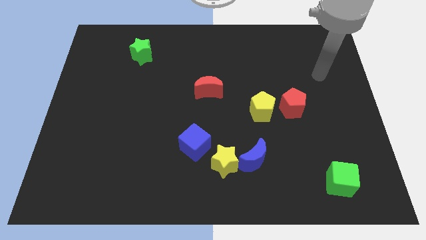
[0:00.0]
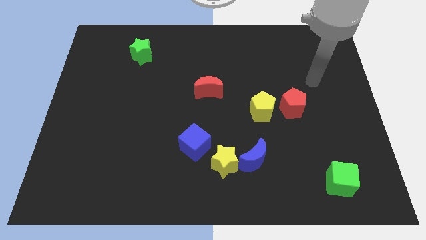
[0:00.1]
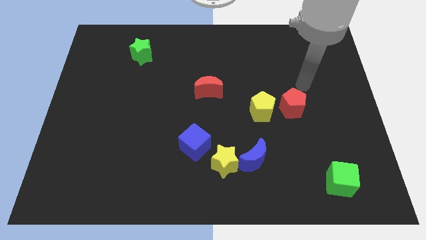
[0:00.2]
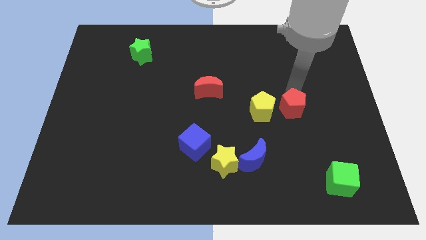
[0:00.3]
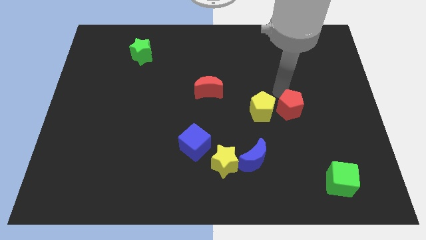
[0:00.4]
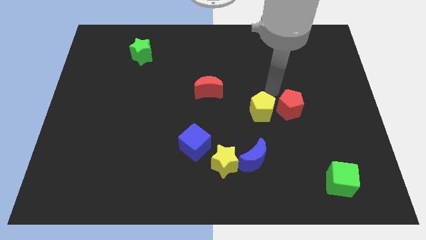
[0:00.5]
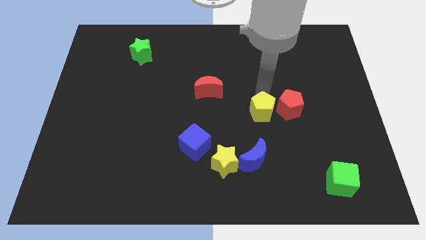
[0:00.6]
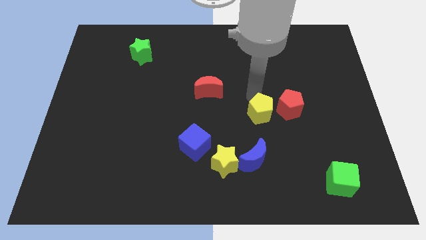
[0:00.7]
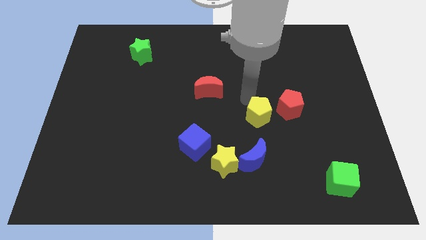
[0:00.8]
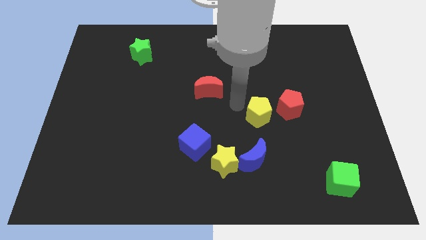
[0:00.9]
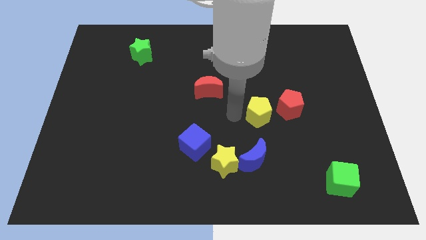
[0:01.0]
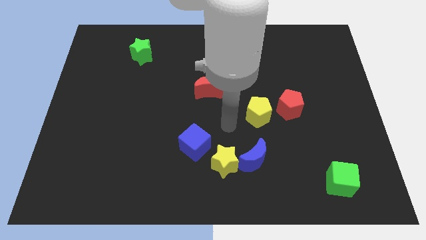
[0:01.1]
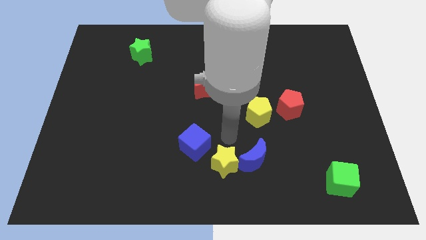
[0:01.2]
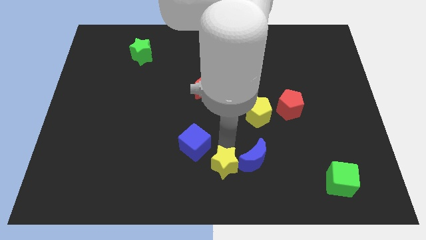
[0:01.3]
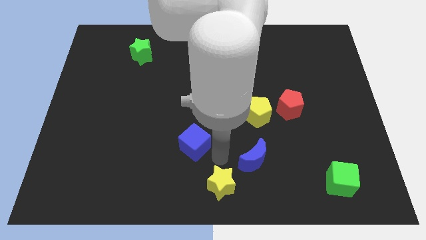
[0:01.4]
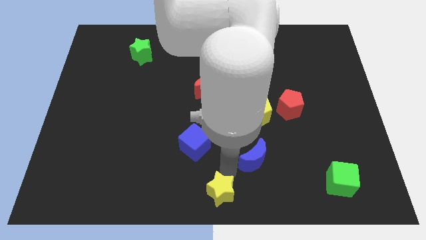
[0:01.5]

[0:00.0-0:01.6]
pull the blue moon apart from the yellow star

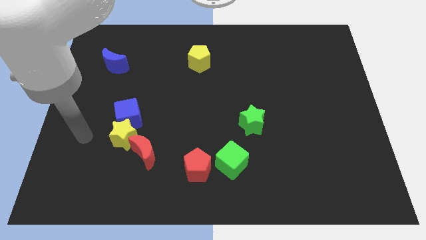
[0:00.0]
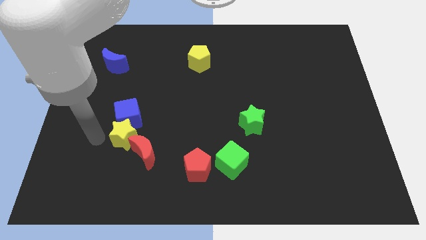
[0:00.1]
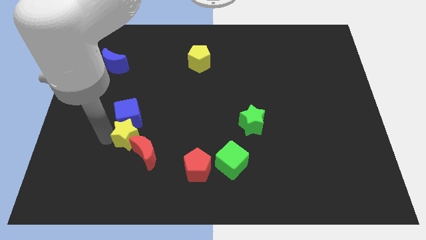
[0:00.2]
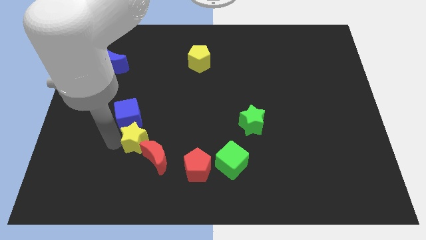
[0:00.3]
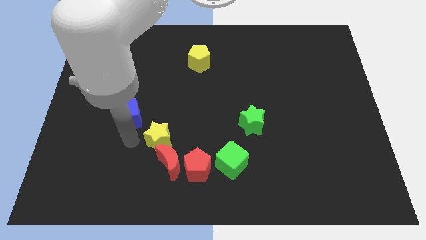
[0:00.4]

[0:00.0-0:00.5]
pull the blue cube apart from the yellow star

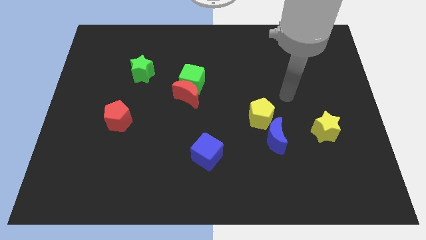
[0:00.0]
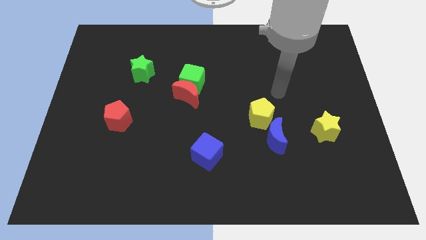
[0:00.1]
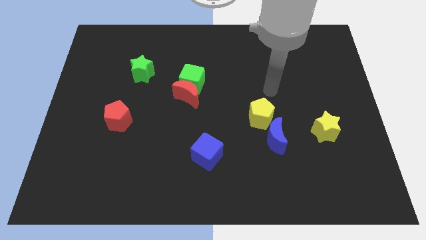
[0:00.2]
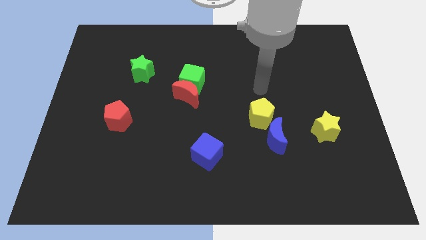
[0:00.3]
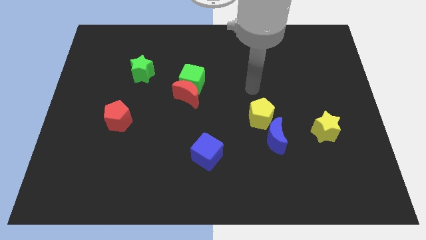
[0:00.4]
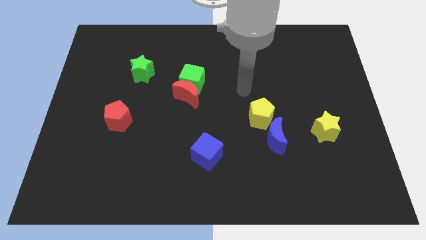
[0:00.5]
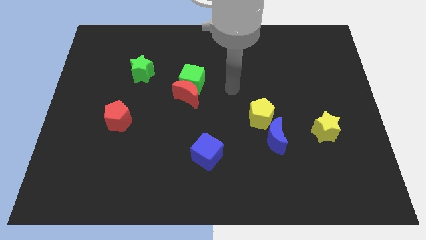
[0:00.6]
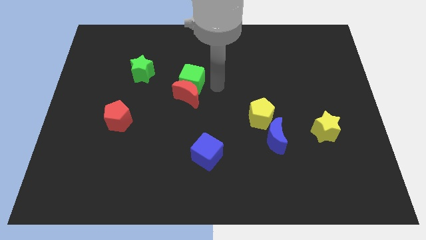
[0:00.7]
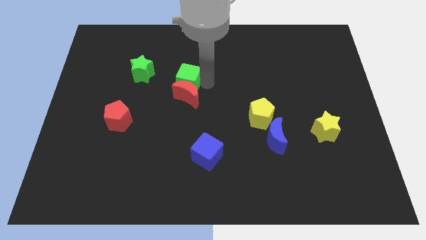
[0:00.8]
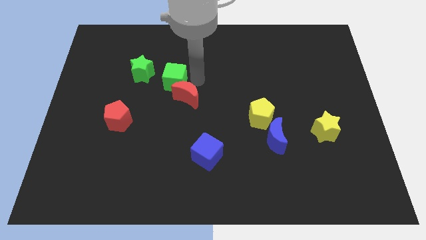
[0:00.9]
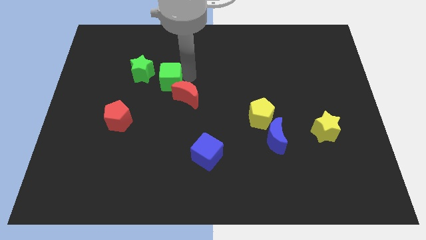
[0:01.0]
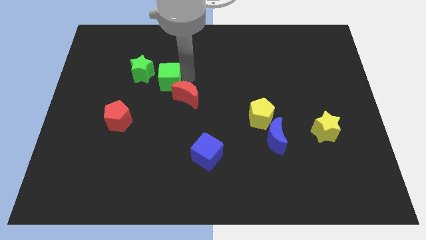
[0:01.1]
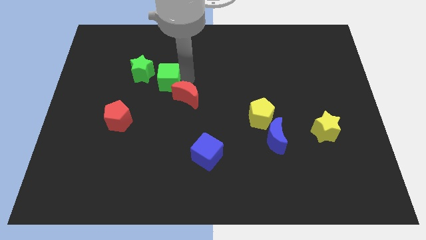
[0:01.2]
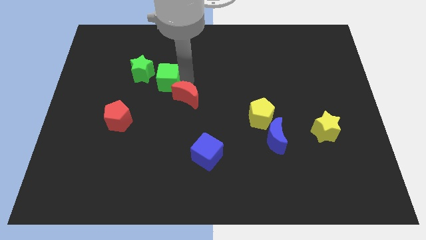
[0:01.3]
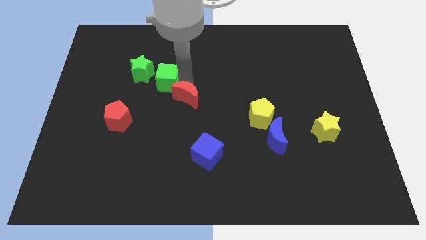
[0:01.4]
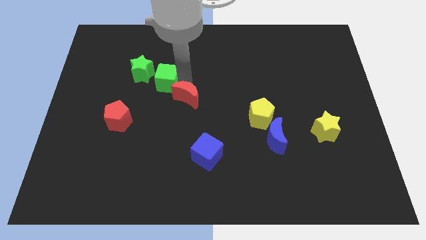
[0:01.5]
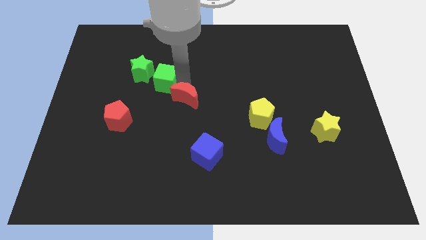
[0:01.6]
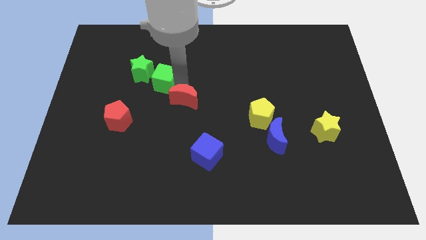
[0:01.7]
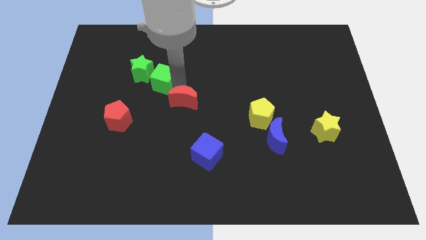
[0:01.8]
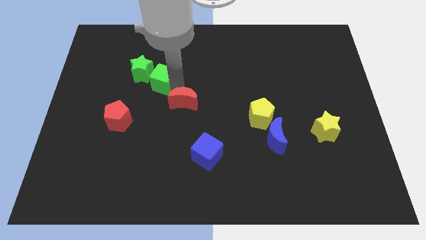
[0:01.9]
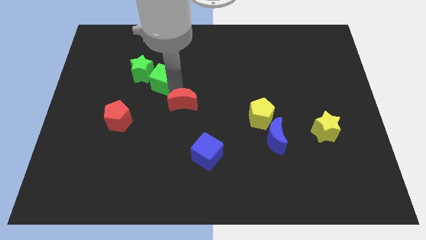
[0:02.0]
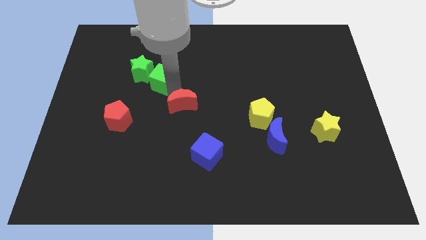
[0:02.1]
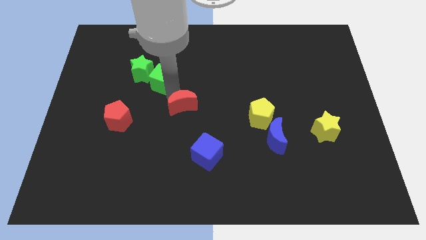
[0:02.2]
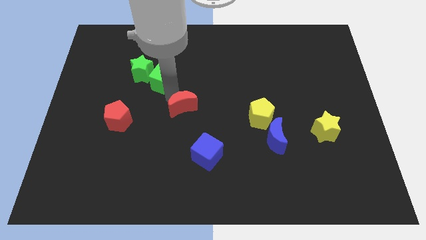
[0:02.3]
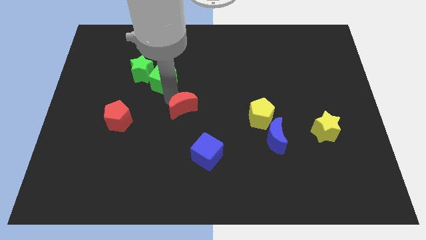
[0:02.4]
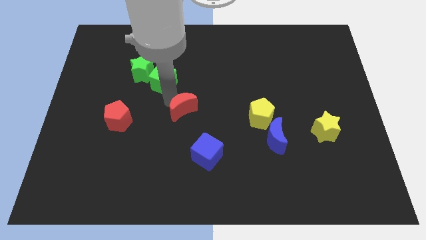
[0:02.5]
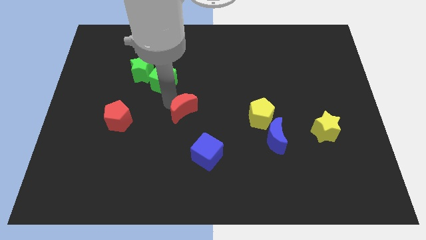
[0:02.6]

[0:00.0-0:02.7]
move the red moon away from the green cube

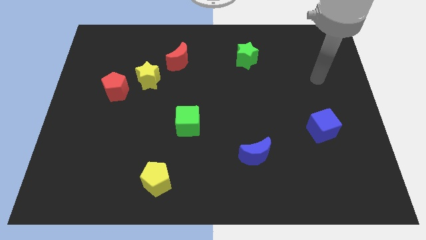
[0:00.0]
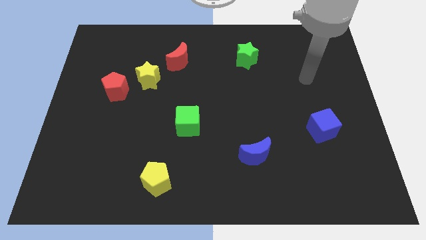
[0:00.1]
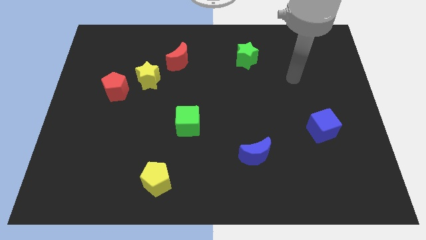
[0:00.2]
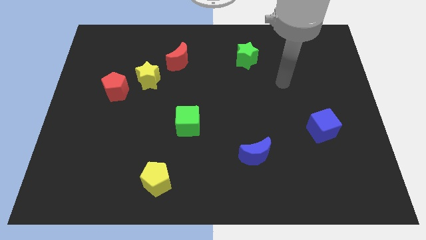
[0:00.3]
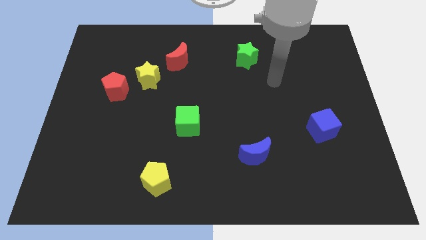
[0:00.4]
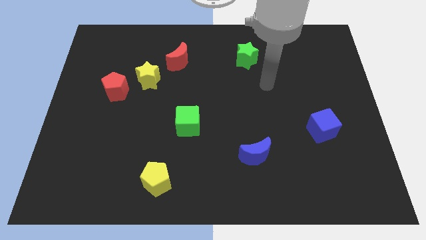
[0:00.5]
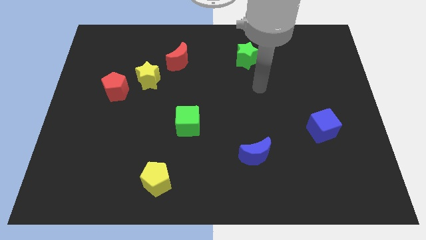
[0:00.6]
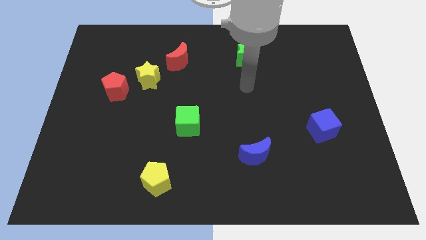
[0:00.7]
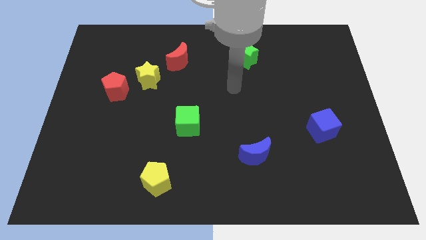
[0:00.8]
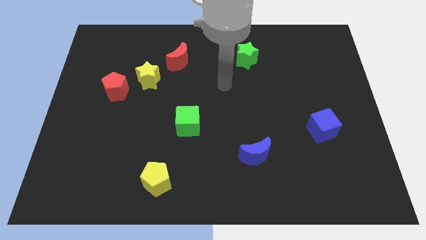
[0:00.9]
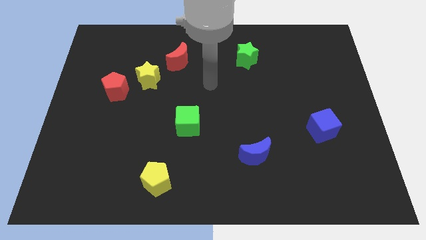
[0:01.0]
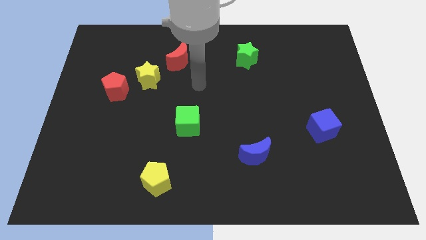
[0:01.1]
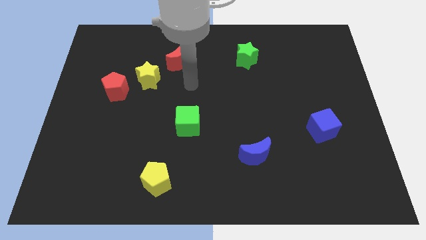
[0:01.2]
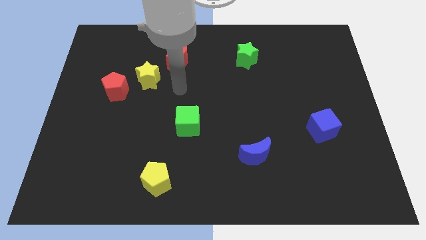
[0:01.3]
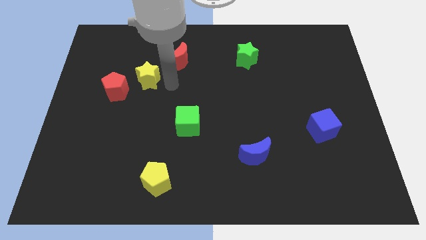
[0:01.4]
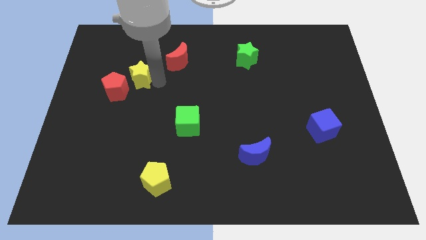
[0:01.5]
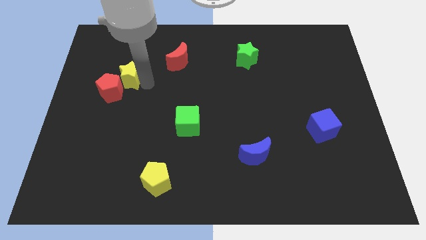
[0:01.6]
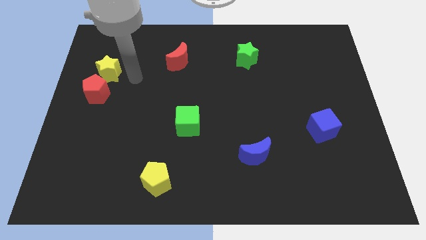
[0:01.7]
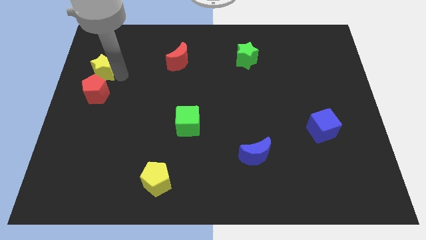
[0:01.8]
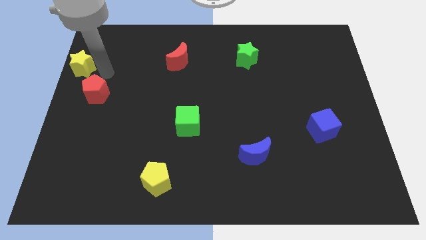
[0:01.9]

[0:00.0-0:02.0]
separate the red pentagon from the yellow star

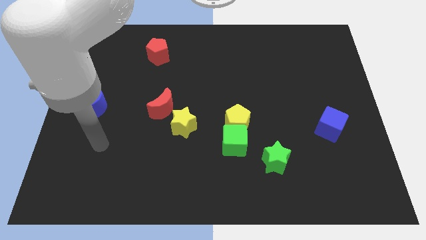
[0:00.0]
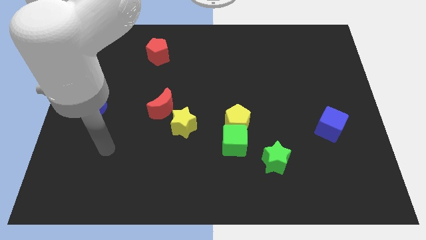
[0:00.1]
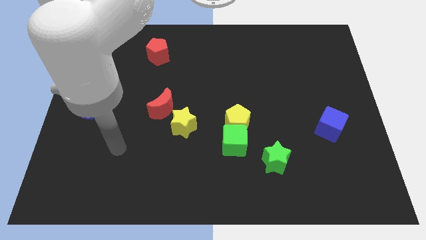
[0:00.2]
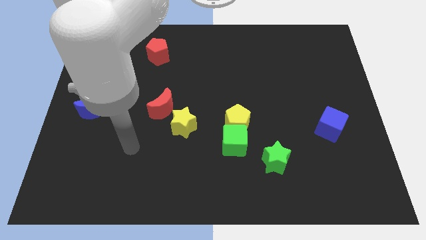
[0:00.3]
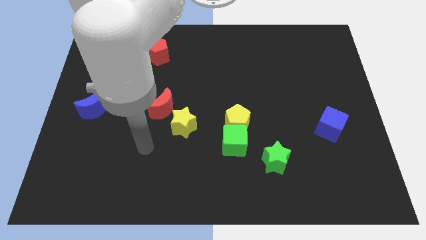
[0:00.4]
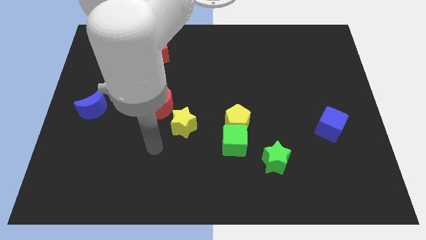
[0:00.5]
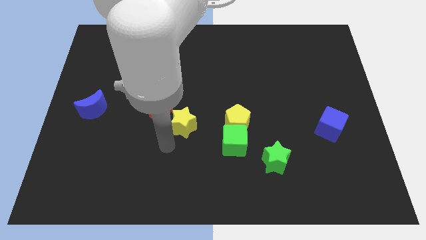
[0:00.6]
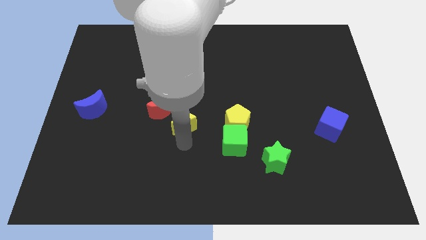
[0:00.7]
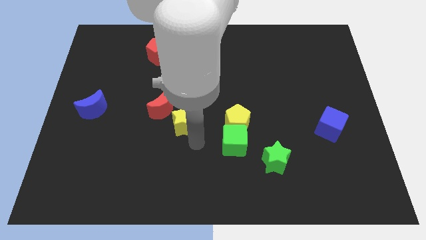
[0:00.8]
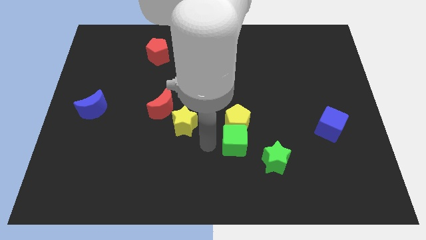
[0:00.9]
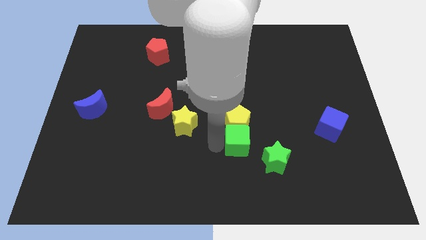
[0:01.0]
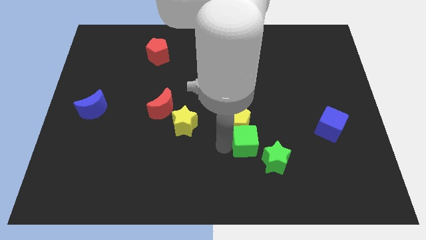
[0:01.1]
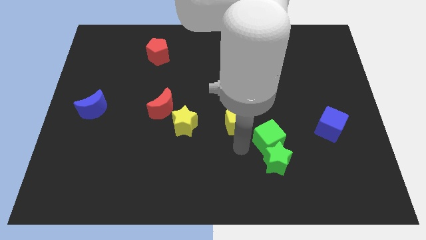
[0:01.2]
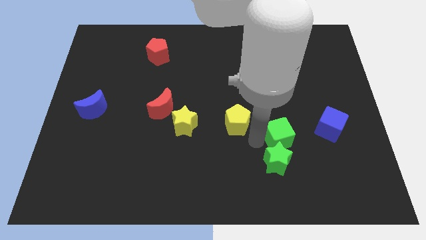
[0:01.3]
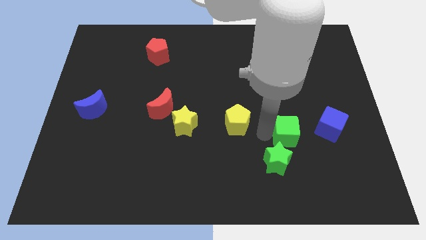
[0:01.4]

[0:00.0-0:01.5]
move the yellow pentagon away from the green cube

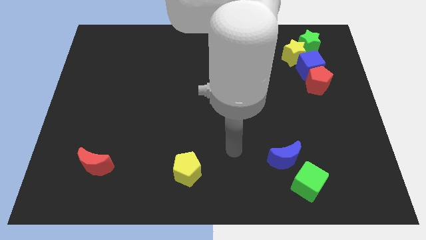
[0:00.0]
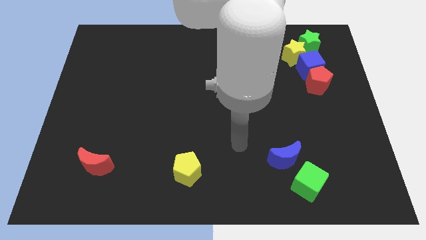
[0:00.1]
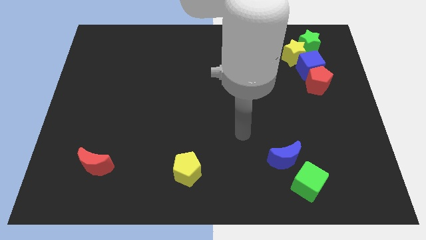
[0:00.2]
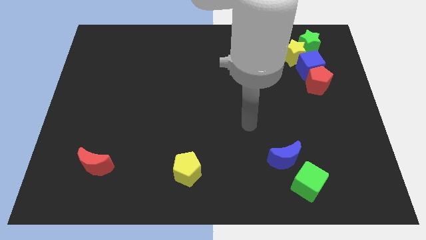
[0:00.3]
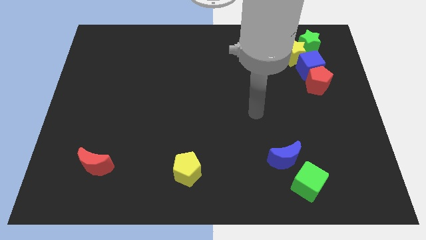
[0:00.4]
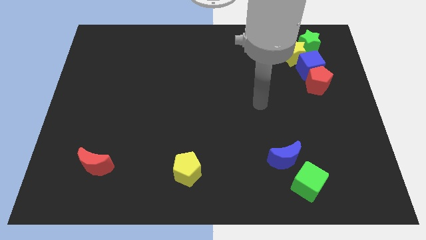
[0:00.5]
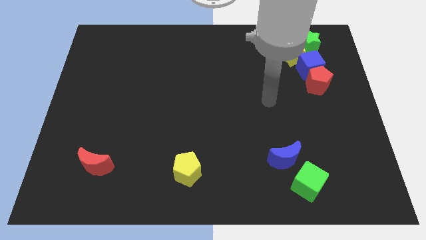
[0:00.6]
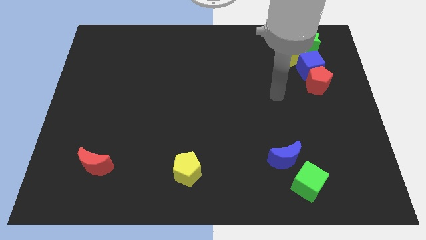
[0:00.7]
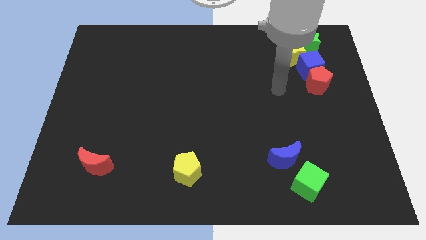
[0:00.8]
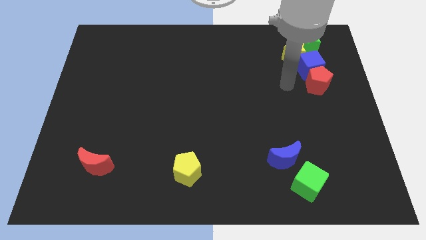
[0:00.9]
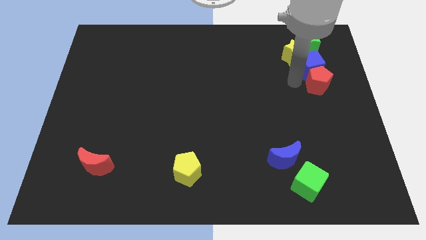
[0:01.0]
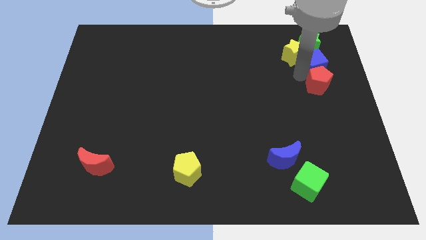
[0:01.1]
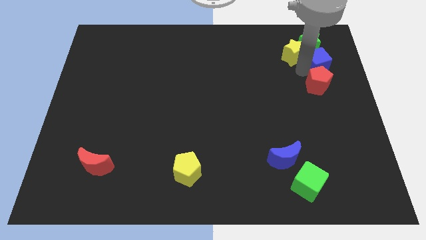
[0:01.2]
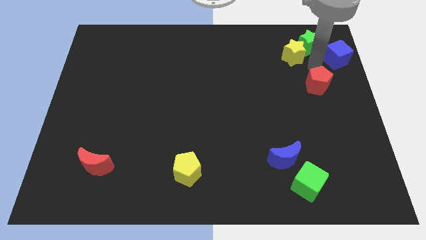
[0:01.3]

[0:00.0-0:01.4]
separate the red pentagon from the blue cube
